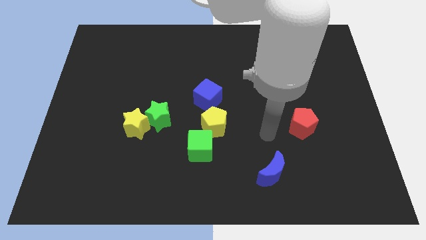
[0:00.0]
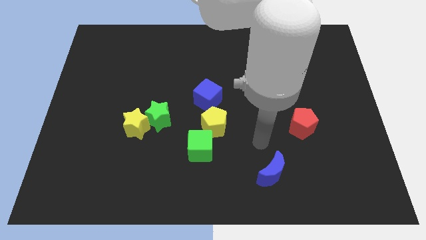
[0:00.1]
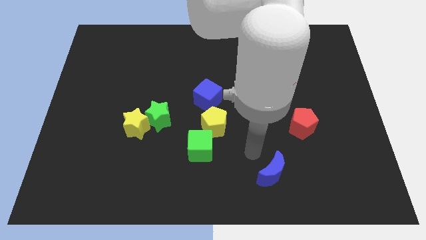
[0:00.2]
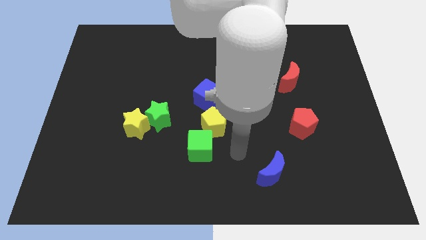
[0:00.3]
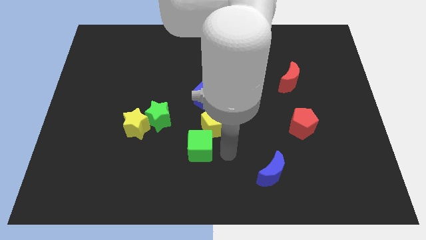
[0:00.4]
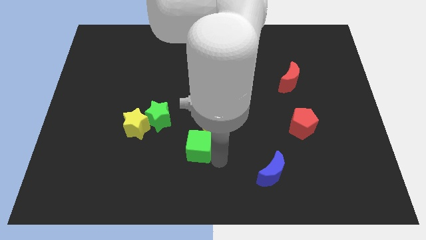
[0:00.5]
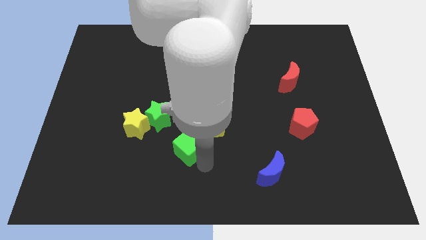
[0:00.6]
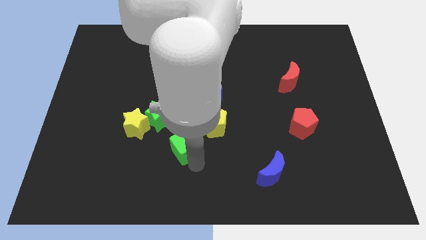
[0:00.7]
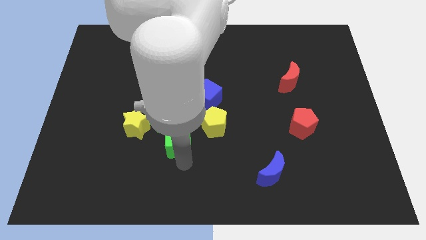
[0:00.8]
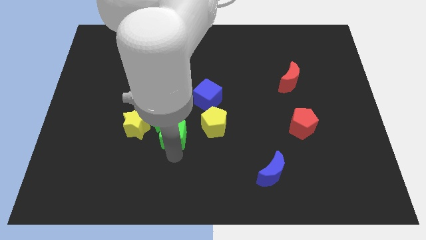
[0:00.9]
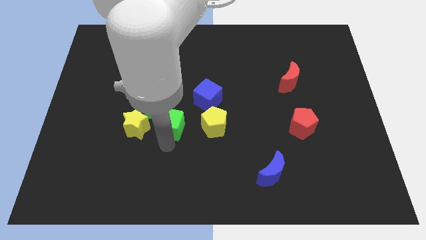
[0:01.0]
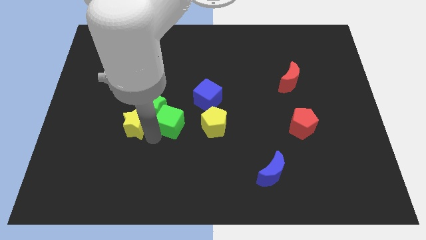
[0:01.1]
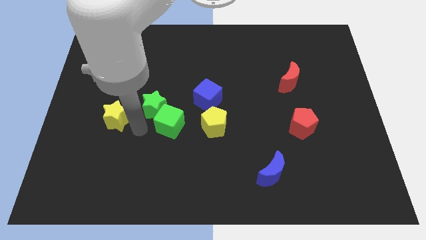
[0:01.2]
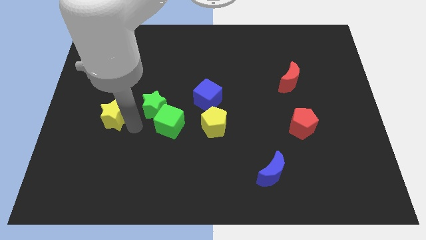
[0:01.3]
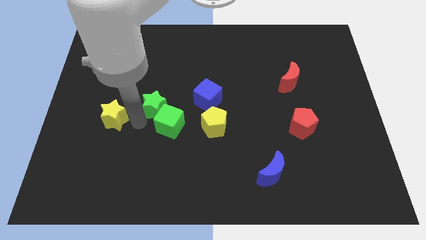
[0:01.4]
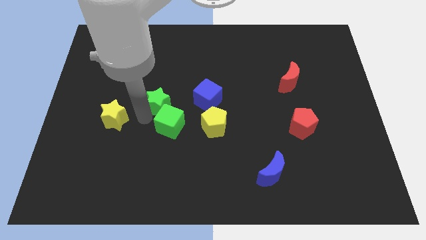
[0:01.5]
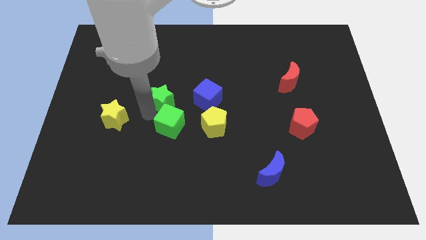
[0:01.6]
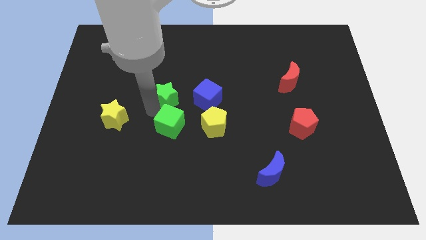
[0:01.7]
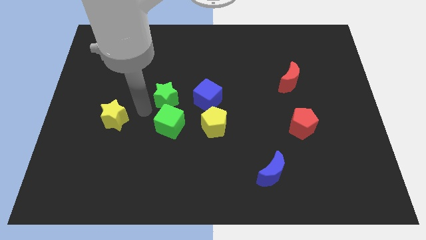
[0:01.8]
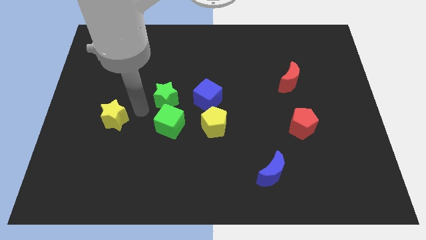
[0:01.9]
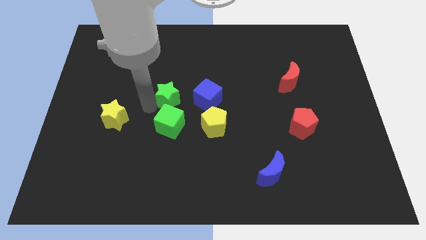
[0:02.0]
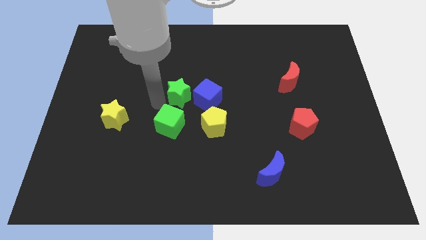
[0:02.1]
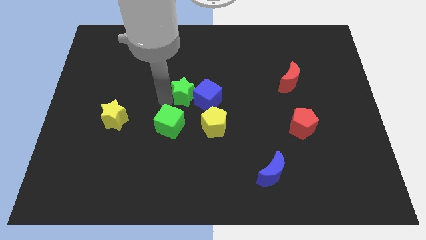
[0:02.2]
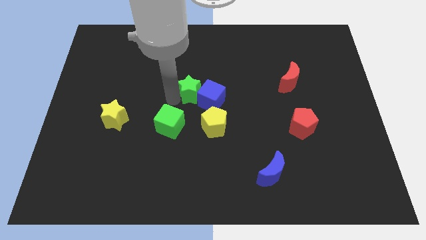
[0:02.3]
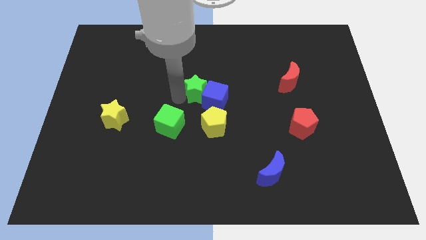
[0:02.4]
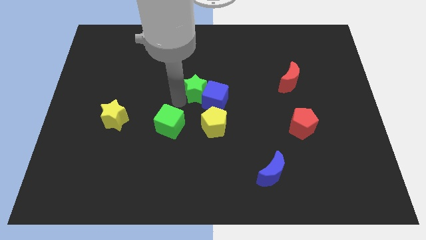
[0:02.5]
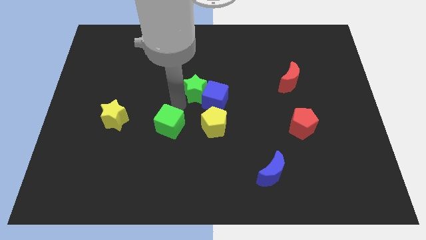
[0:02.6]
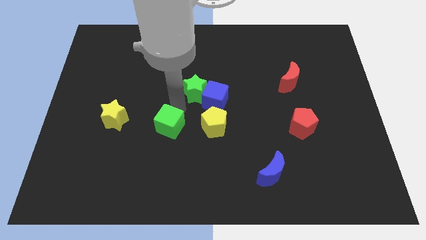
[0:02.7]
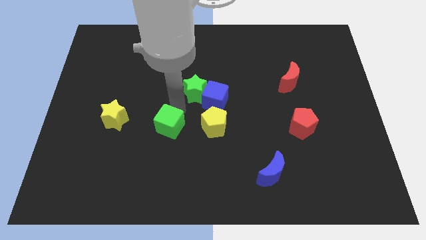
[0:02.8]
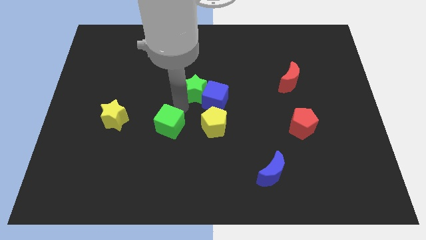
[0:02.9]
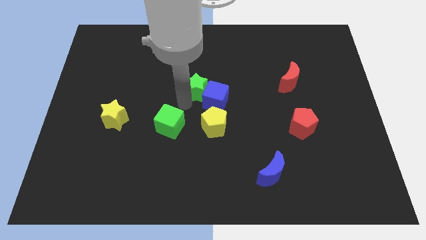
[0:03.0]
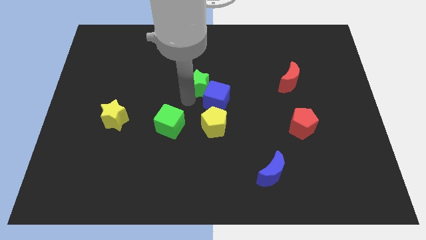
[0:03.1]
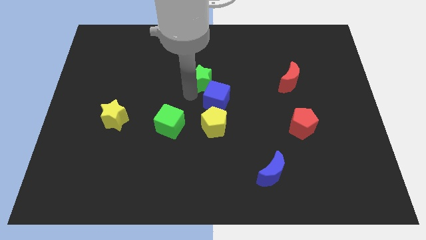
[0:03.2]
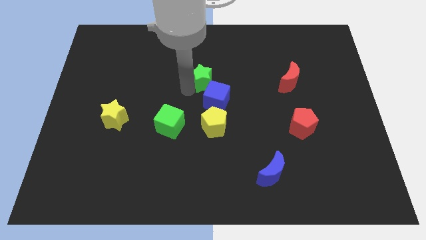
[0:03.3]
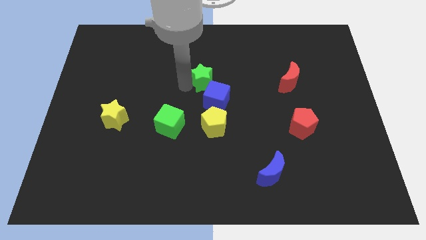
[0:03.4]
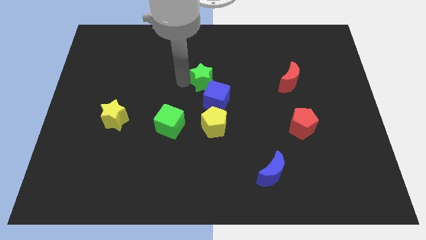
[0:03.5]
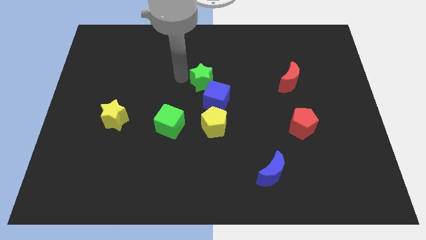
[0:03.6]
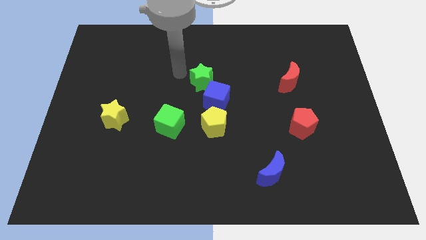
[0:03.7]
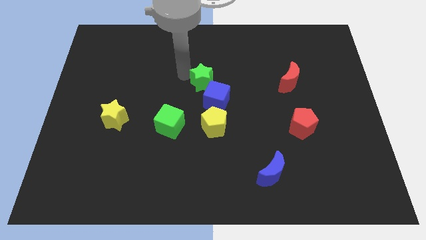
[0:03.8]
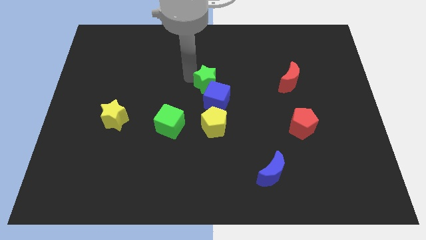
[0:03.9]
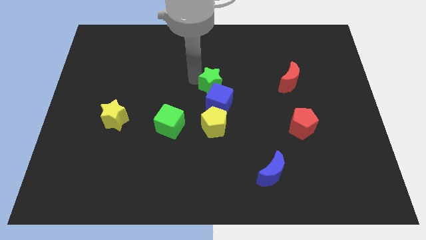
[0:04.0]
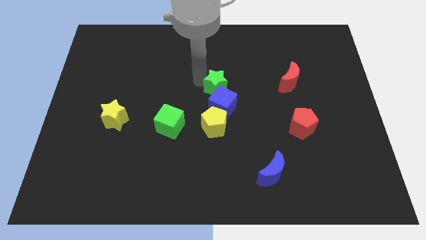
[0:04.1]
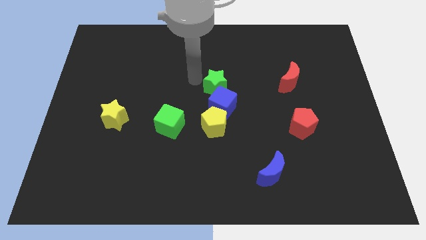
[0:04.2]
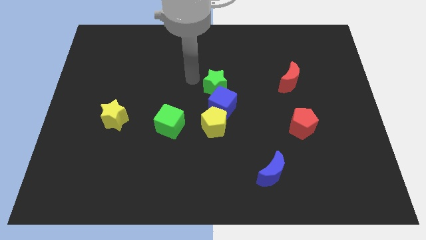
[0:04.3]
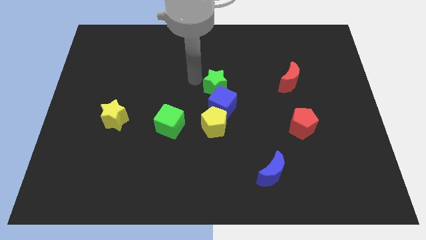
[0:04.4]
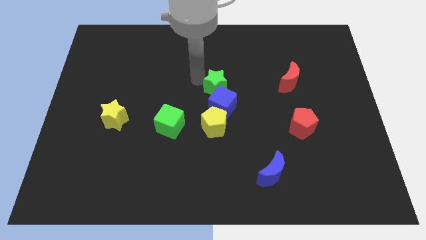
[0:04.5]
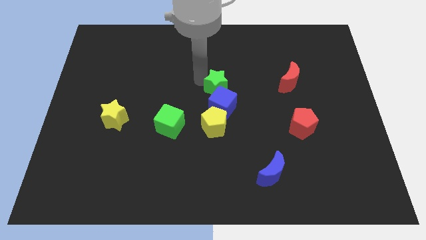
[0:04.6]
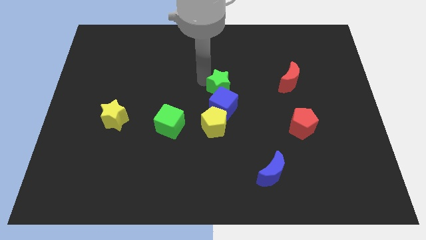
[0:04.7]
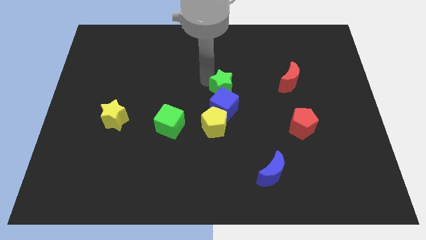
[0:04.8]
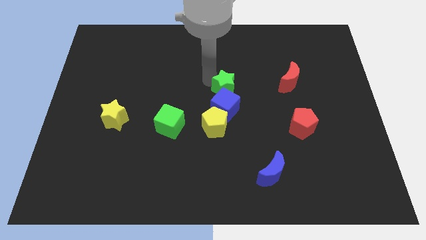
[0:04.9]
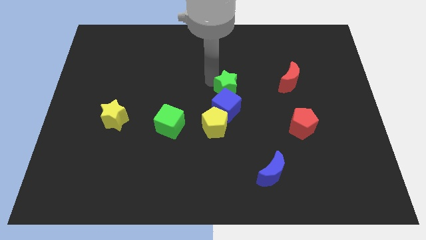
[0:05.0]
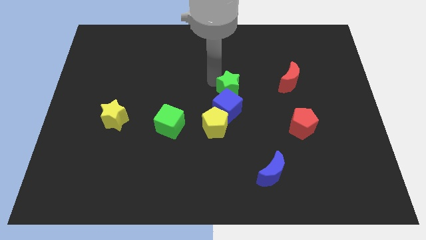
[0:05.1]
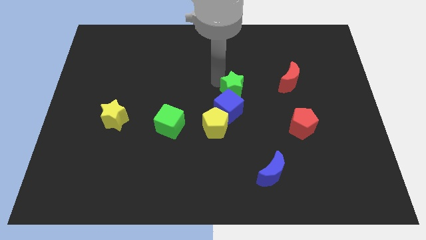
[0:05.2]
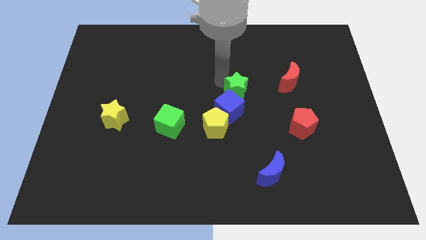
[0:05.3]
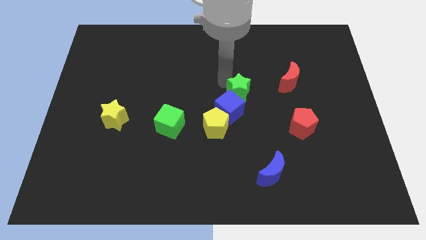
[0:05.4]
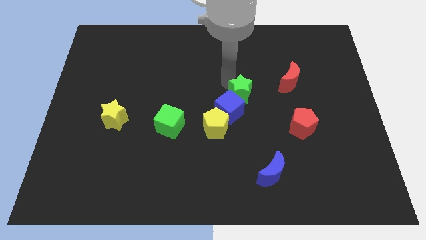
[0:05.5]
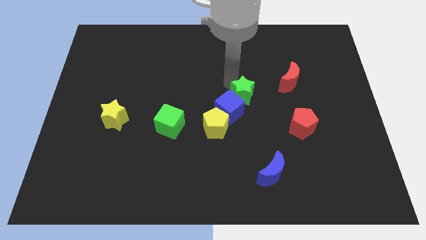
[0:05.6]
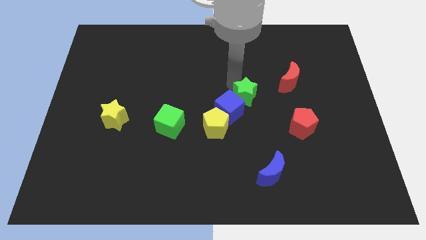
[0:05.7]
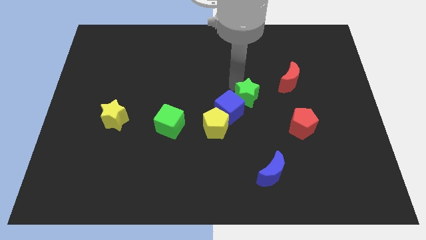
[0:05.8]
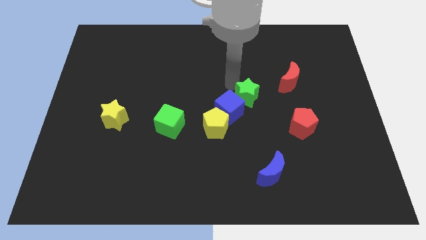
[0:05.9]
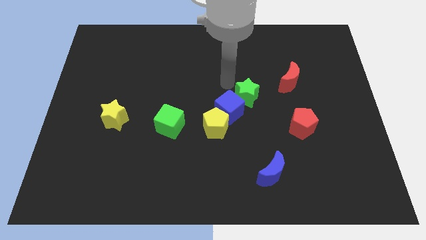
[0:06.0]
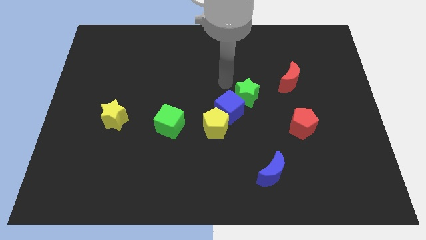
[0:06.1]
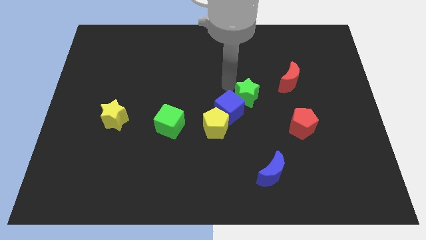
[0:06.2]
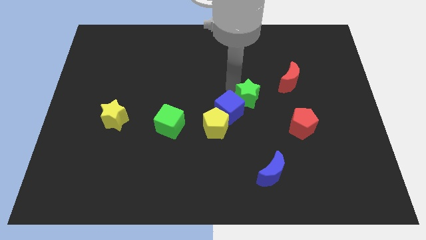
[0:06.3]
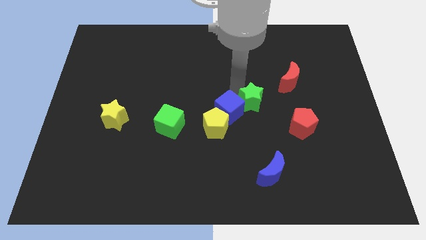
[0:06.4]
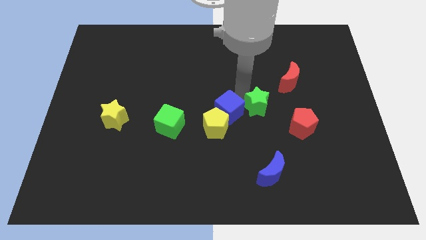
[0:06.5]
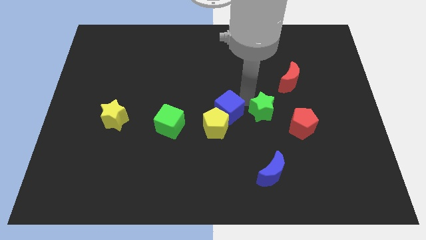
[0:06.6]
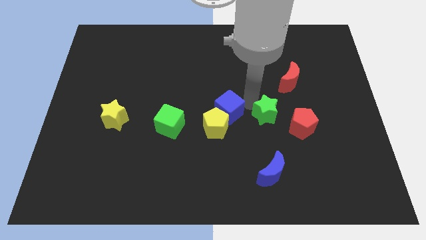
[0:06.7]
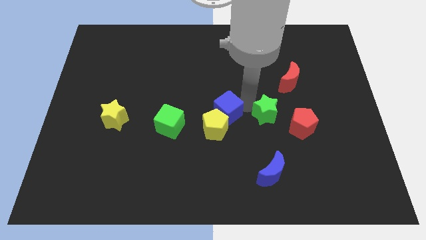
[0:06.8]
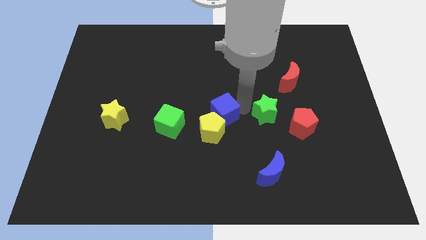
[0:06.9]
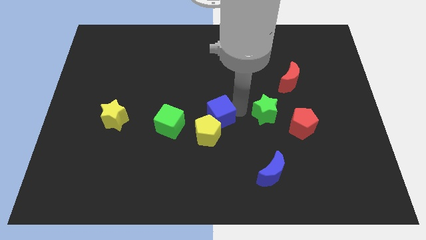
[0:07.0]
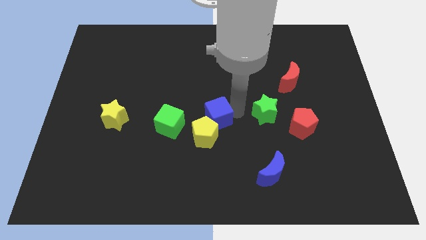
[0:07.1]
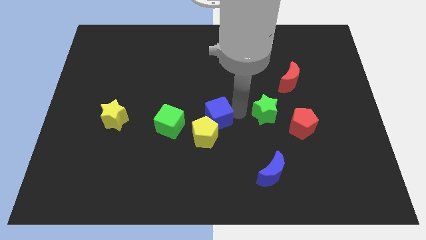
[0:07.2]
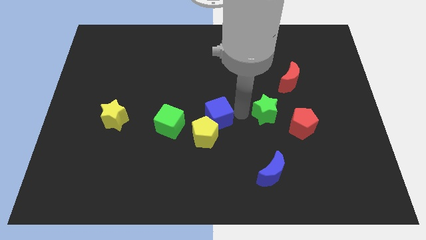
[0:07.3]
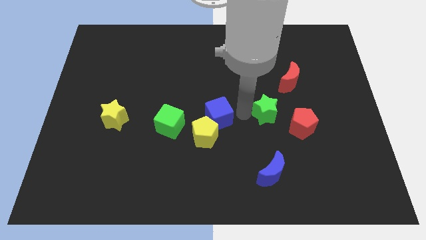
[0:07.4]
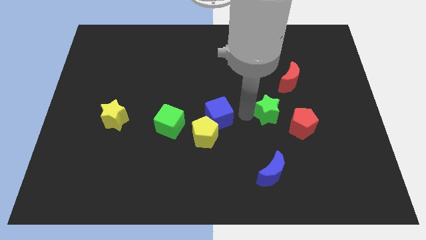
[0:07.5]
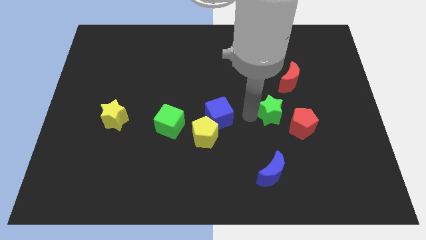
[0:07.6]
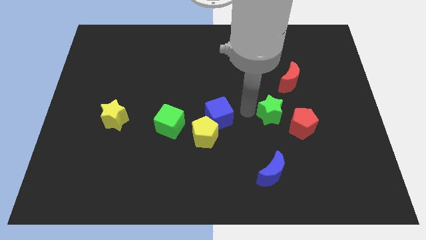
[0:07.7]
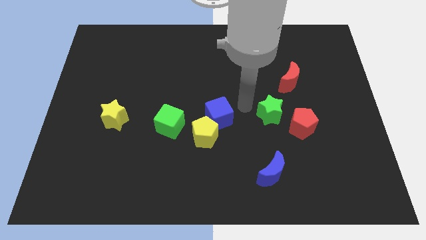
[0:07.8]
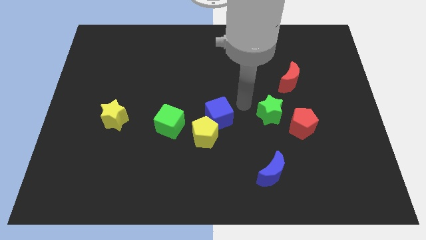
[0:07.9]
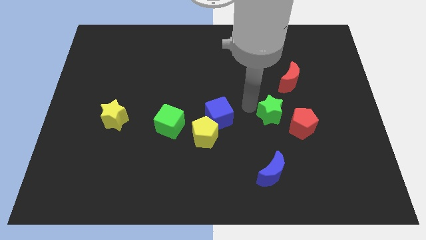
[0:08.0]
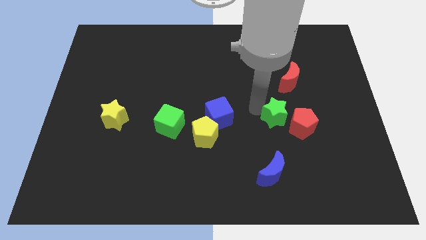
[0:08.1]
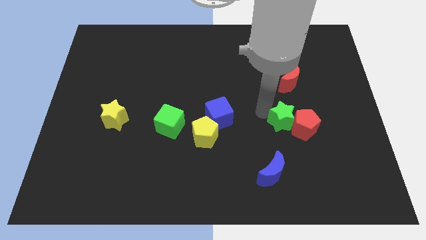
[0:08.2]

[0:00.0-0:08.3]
slide the green star close to the red pentagon
